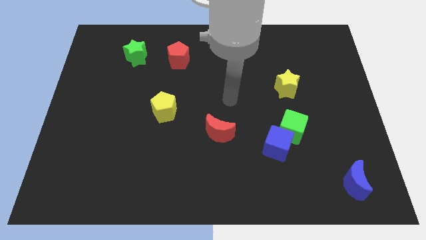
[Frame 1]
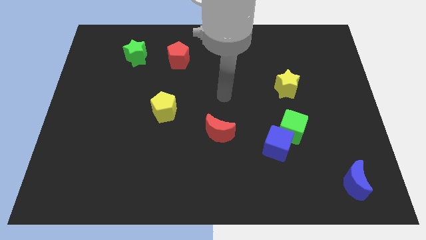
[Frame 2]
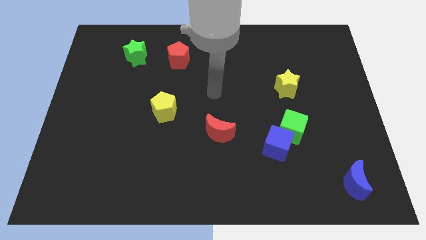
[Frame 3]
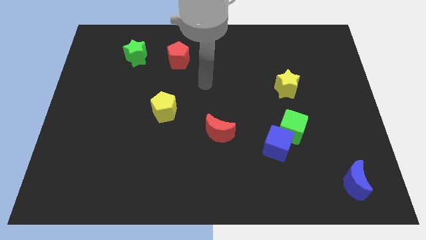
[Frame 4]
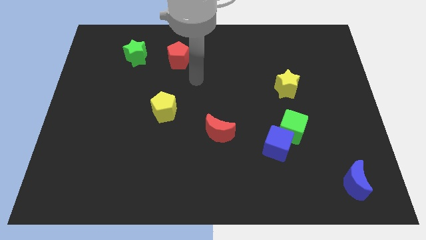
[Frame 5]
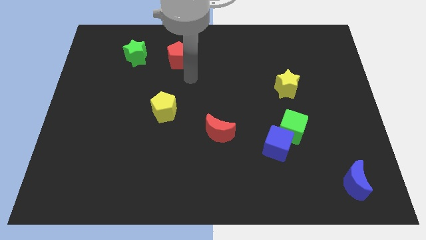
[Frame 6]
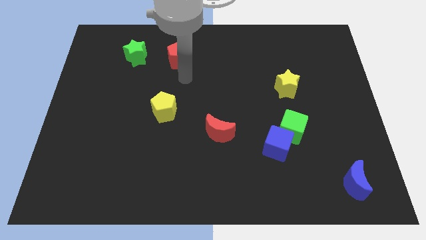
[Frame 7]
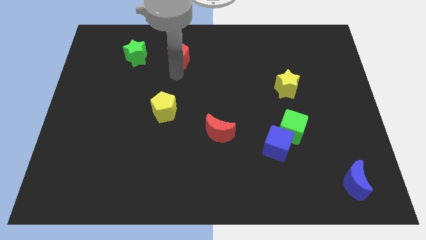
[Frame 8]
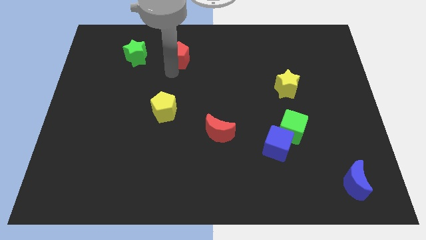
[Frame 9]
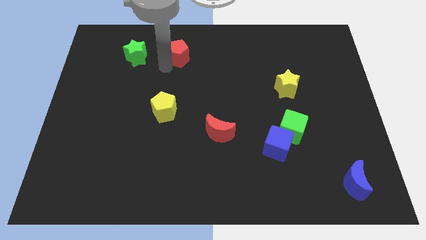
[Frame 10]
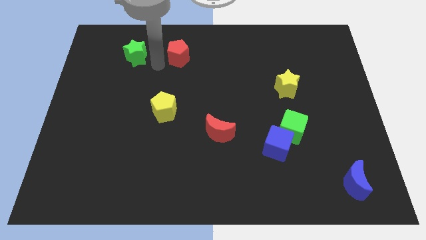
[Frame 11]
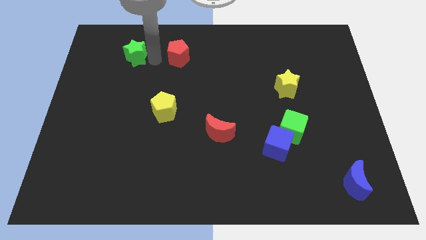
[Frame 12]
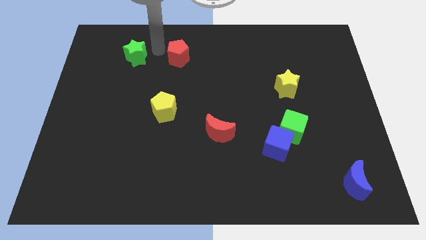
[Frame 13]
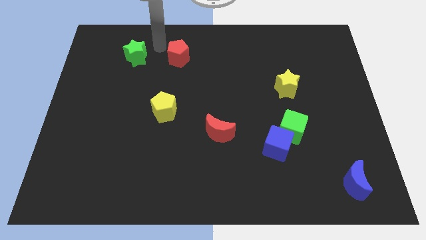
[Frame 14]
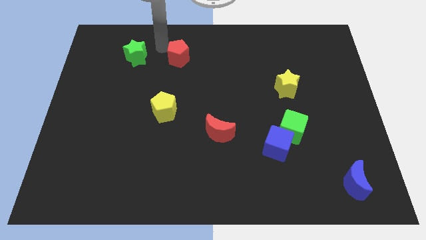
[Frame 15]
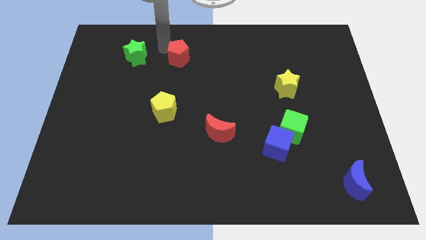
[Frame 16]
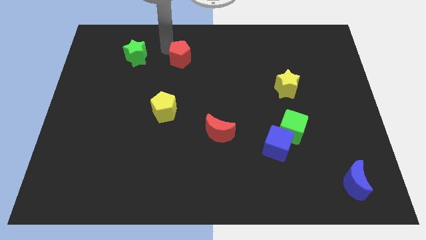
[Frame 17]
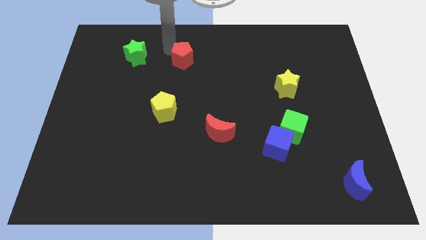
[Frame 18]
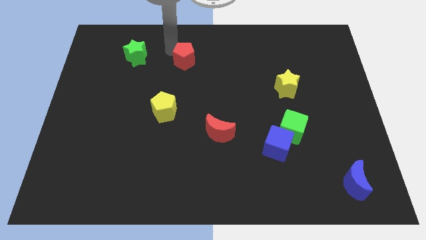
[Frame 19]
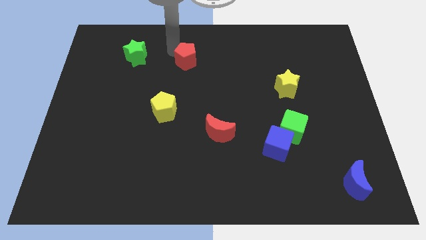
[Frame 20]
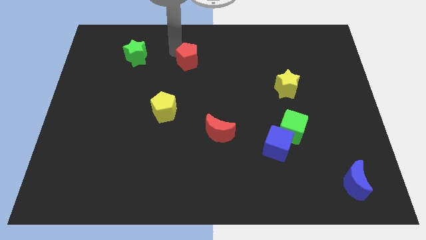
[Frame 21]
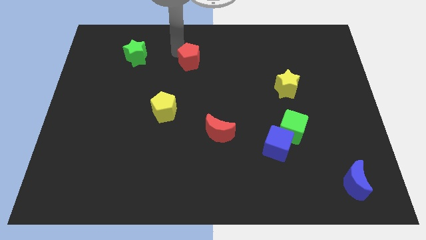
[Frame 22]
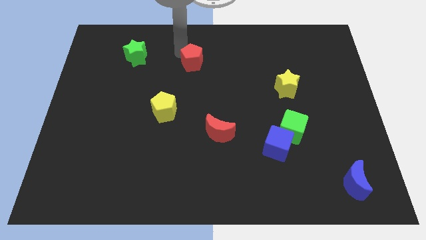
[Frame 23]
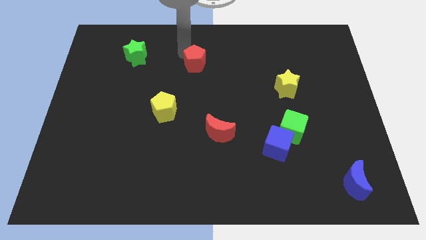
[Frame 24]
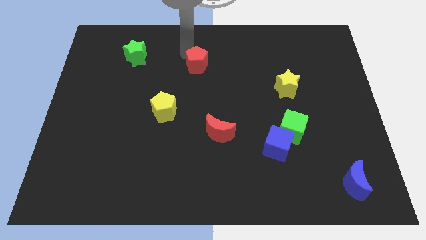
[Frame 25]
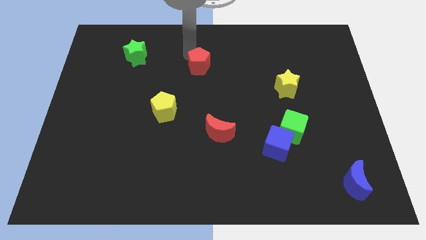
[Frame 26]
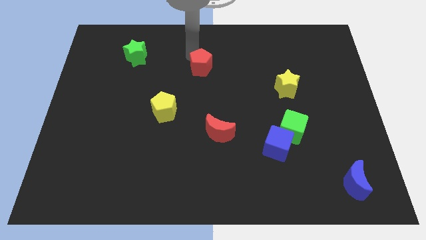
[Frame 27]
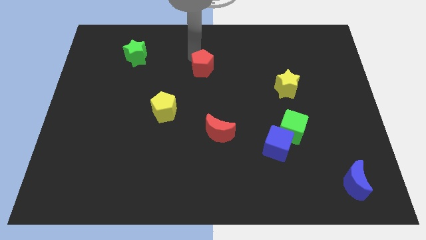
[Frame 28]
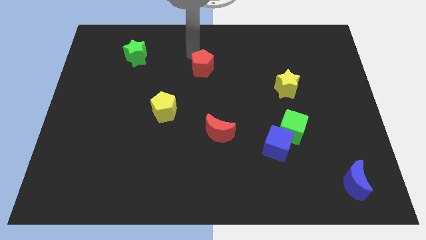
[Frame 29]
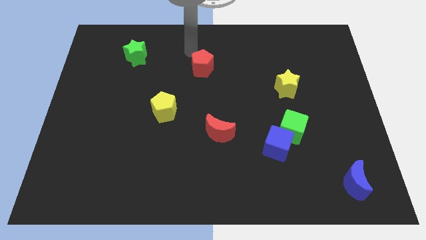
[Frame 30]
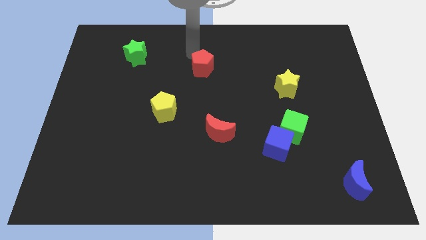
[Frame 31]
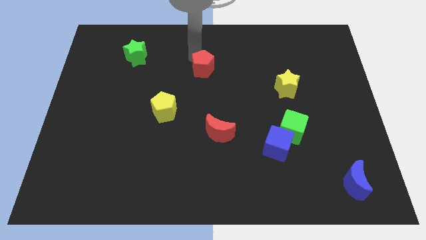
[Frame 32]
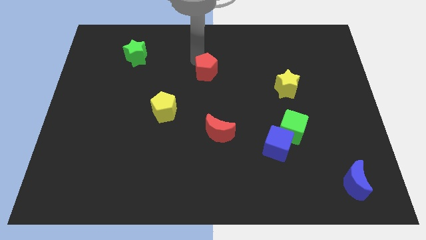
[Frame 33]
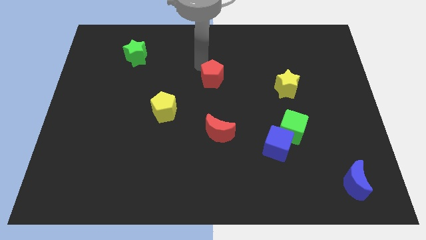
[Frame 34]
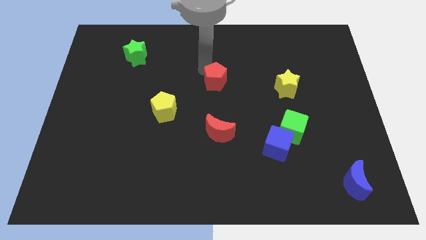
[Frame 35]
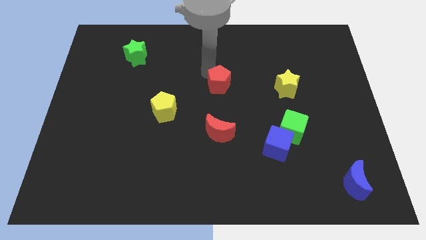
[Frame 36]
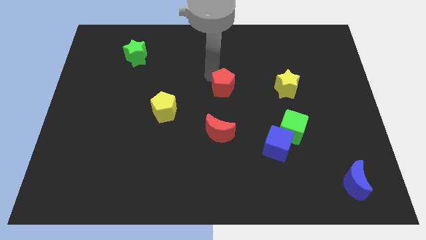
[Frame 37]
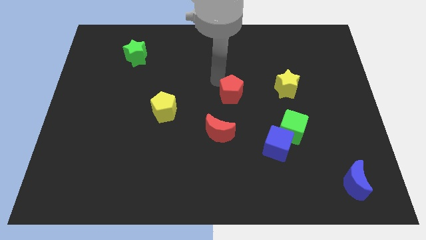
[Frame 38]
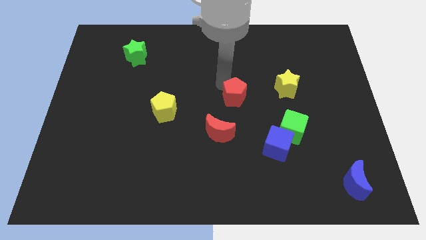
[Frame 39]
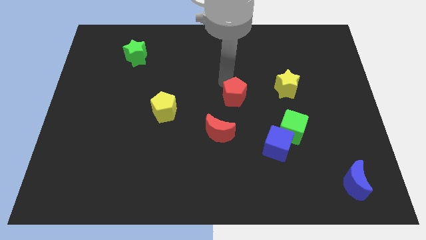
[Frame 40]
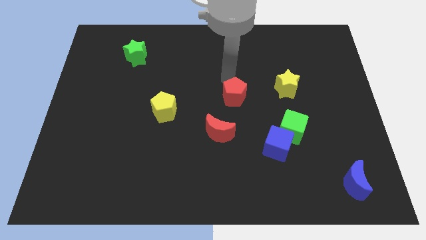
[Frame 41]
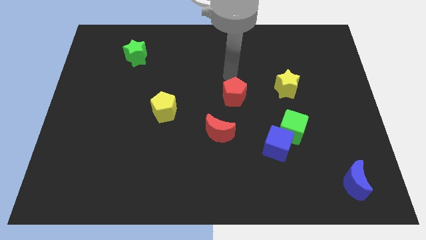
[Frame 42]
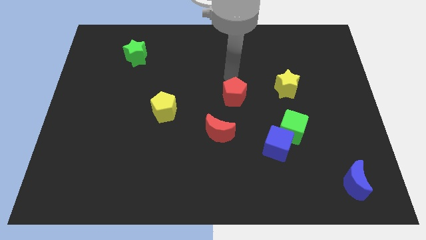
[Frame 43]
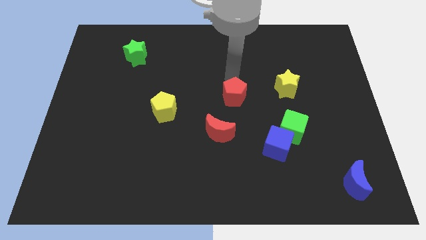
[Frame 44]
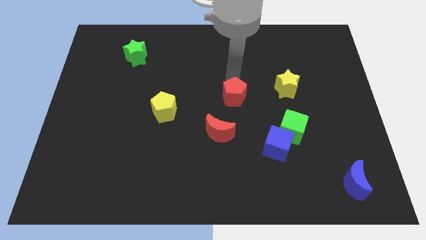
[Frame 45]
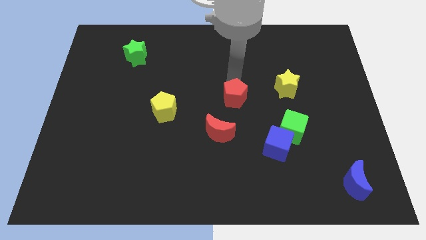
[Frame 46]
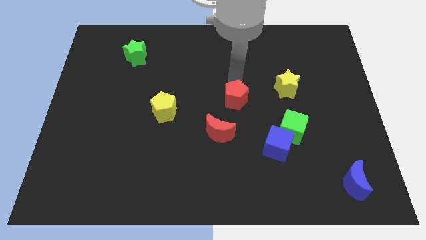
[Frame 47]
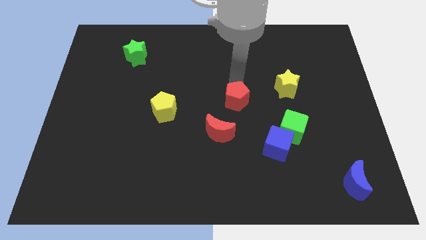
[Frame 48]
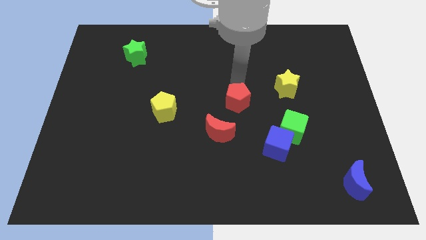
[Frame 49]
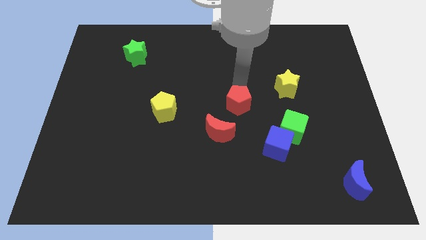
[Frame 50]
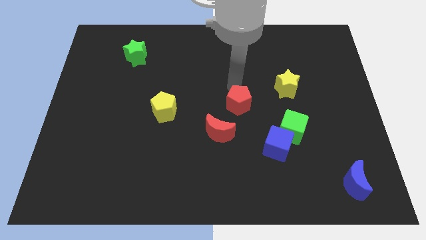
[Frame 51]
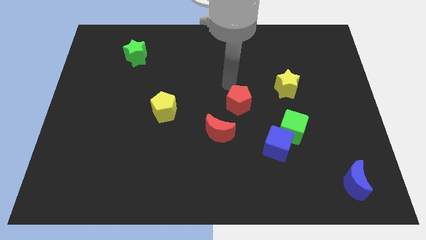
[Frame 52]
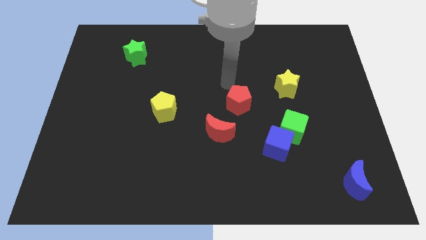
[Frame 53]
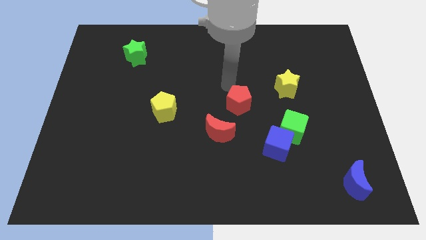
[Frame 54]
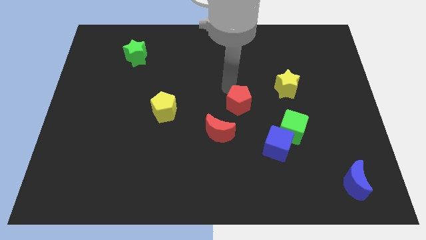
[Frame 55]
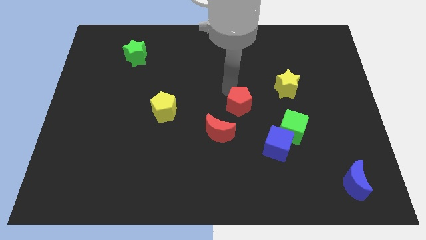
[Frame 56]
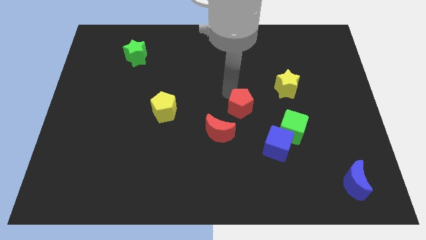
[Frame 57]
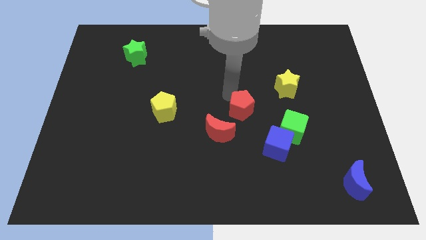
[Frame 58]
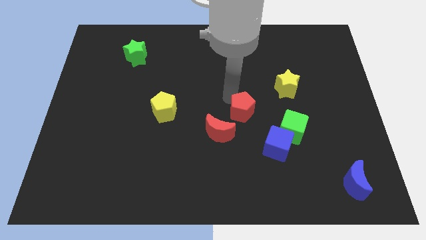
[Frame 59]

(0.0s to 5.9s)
push the red pentagon to the top left of the blue cube
